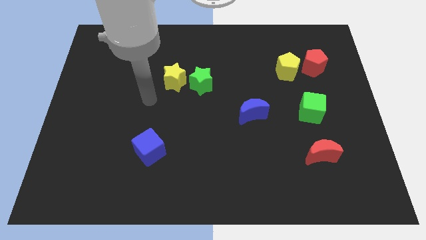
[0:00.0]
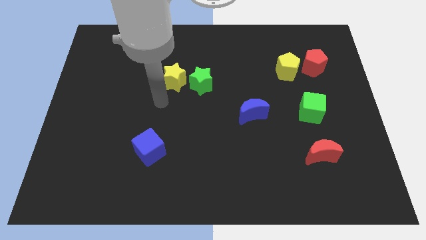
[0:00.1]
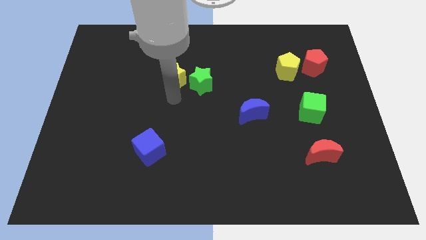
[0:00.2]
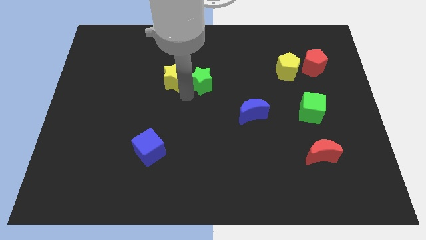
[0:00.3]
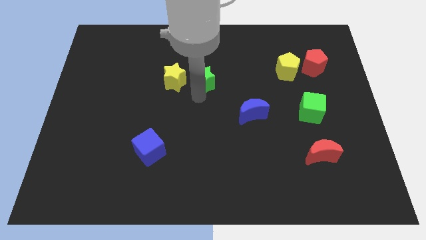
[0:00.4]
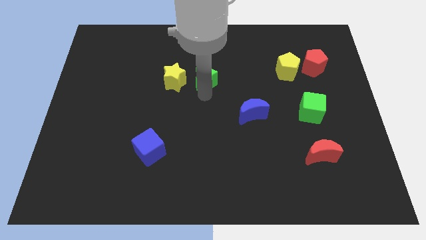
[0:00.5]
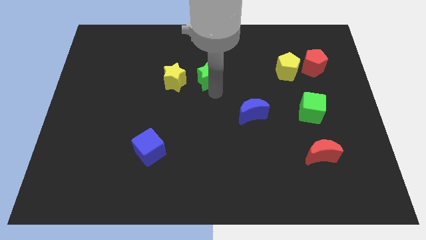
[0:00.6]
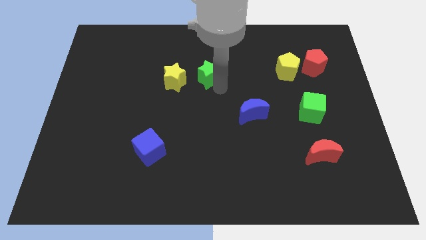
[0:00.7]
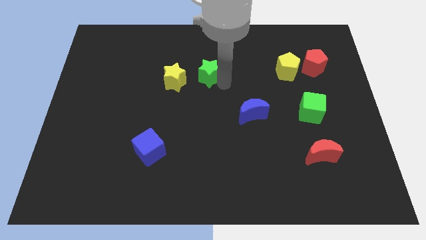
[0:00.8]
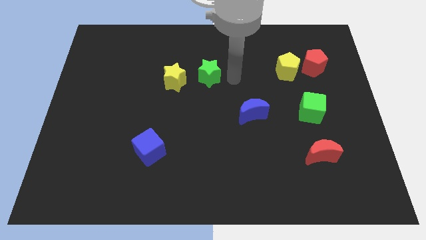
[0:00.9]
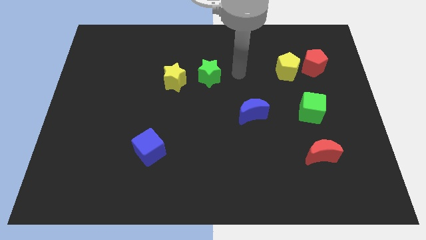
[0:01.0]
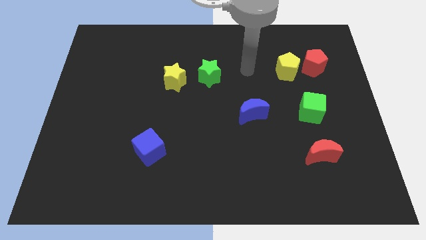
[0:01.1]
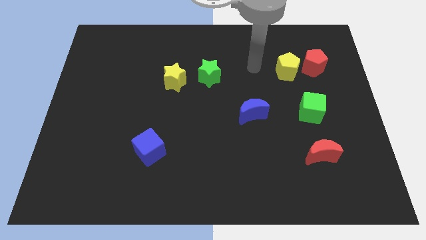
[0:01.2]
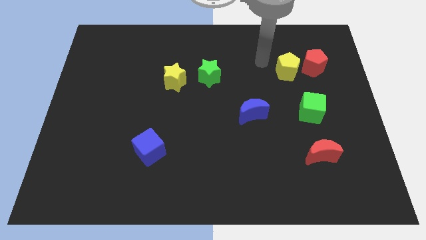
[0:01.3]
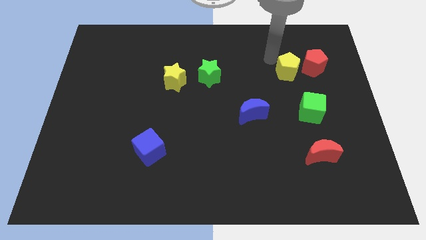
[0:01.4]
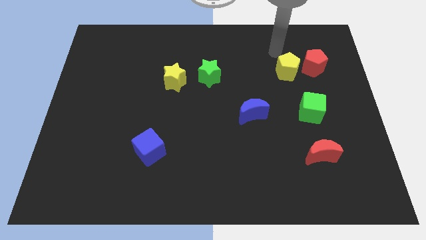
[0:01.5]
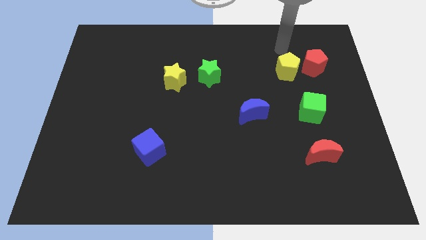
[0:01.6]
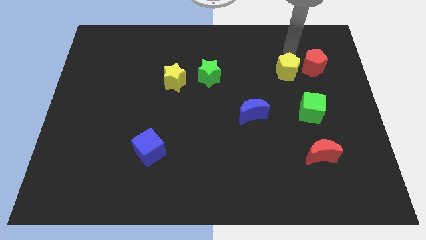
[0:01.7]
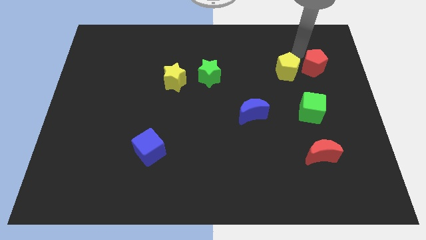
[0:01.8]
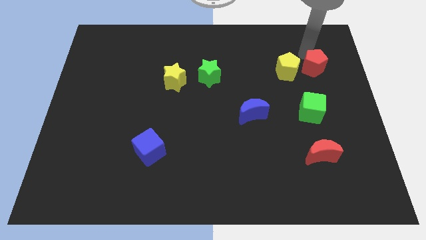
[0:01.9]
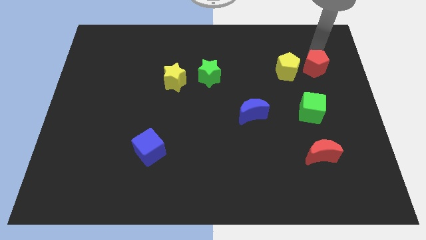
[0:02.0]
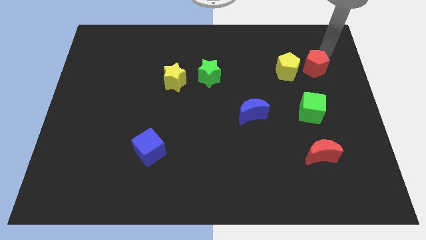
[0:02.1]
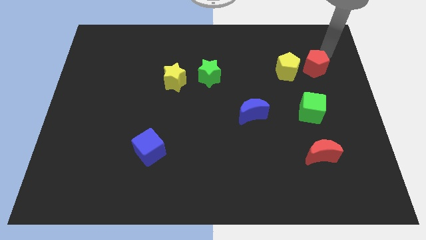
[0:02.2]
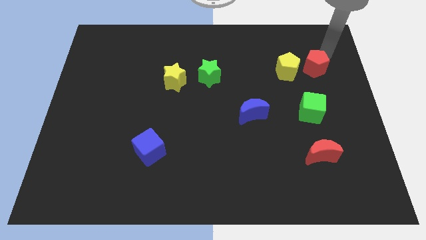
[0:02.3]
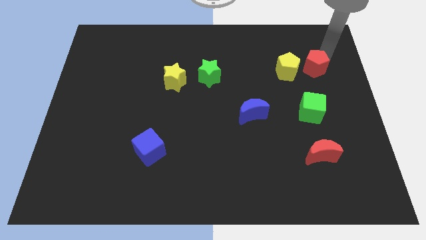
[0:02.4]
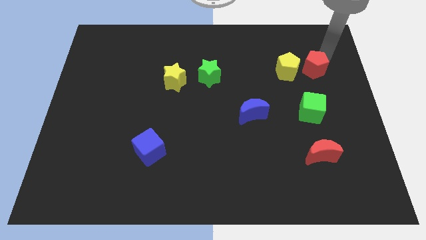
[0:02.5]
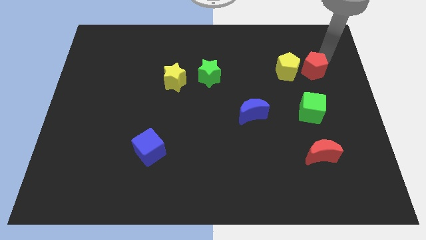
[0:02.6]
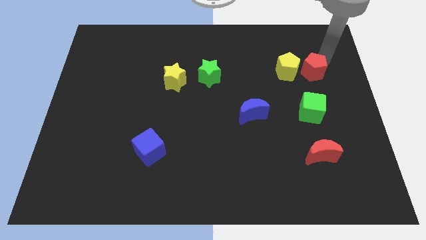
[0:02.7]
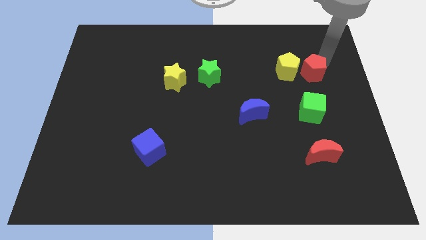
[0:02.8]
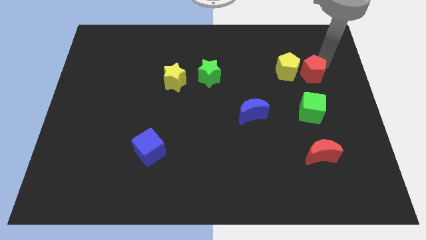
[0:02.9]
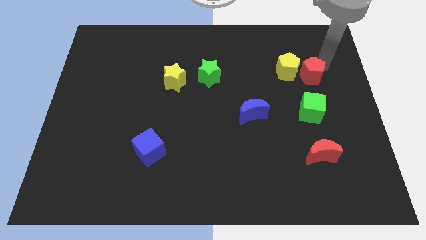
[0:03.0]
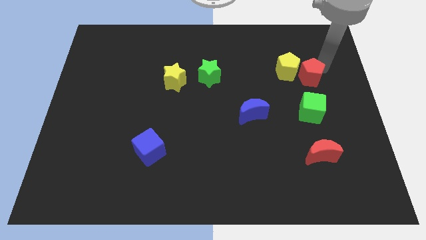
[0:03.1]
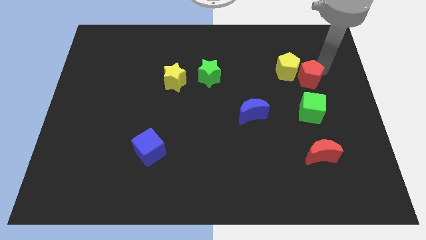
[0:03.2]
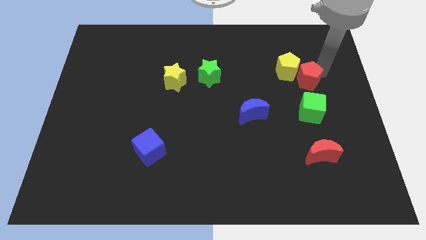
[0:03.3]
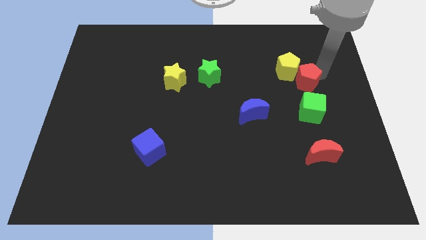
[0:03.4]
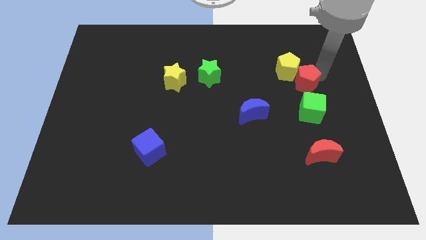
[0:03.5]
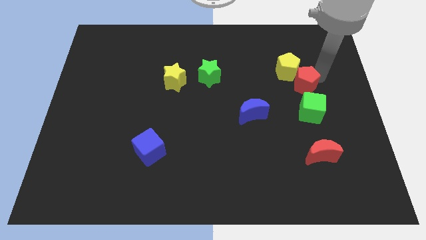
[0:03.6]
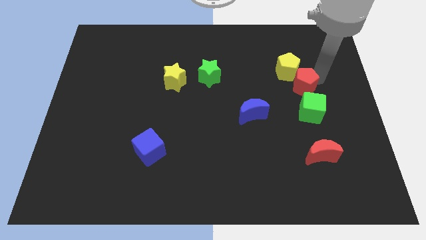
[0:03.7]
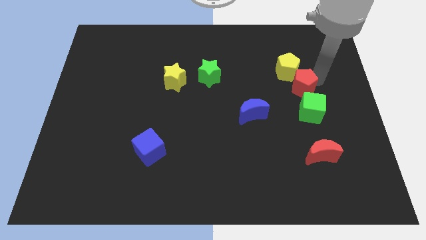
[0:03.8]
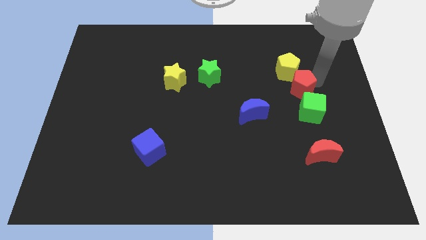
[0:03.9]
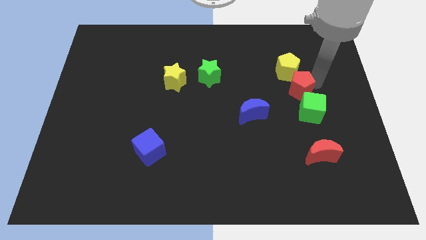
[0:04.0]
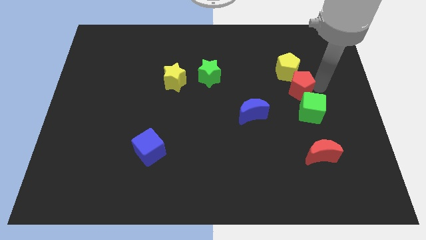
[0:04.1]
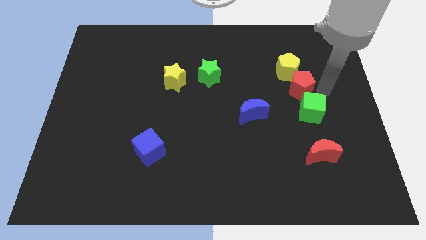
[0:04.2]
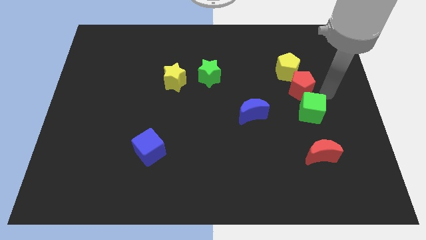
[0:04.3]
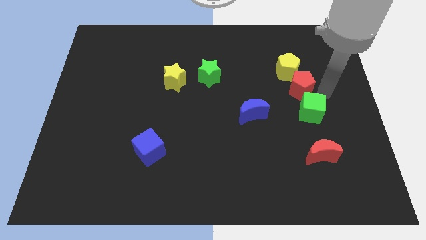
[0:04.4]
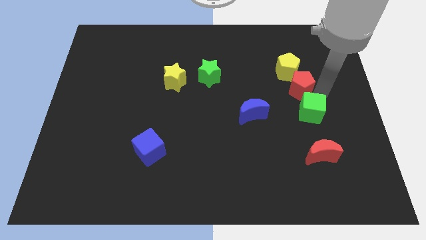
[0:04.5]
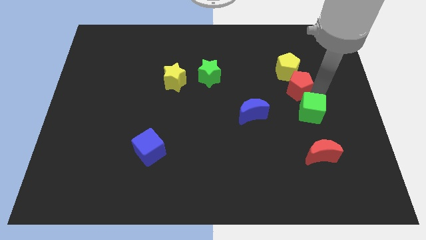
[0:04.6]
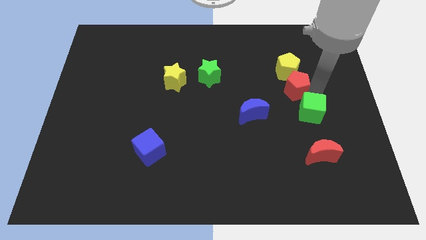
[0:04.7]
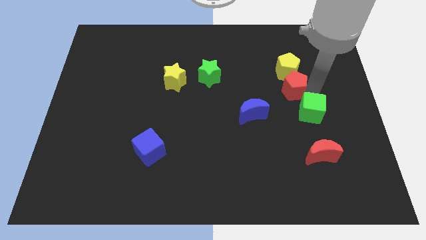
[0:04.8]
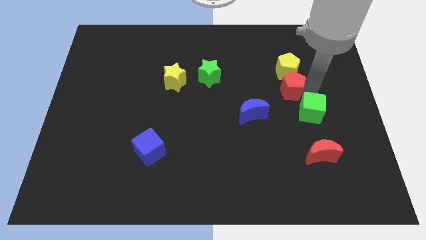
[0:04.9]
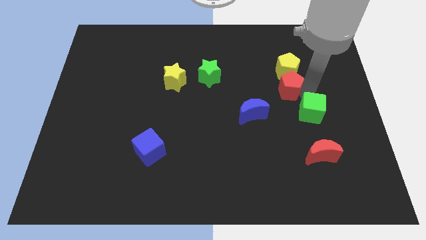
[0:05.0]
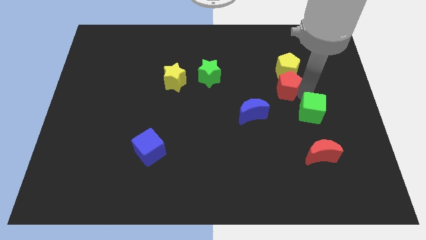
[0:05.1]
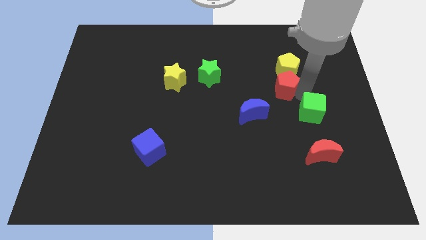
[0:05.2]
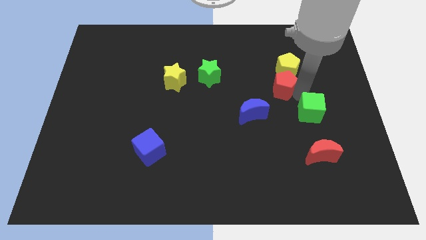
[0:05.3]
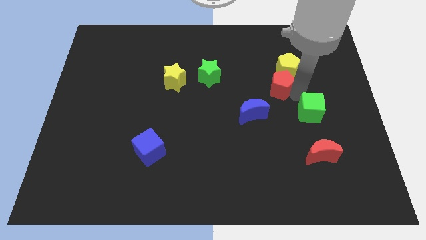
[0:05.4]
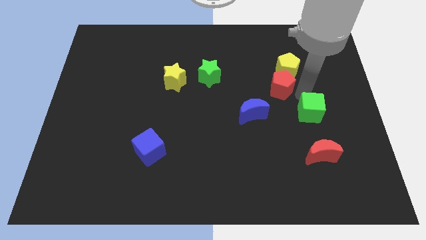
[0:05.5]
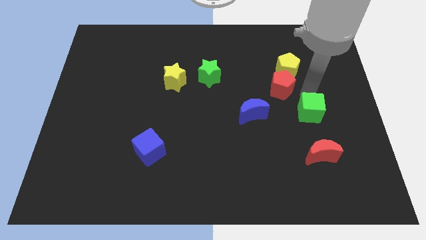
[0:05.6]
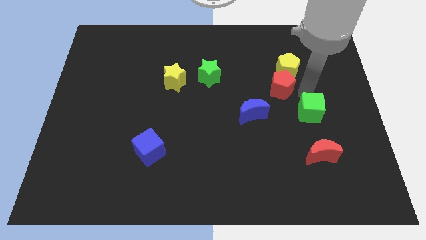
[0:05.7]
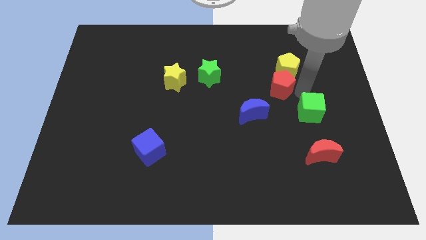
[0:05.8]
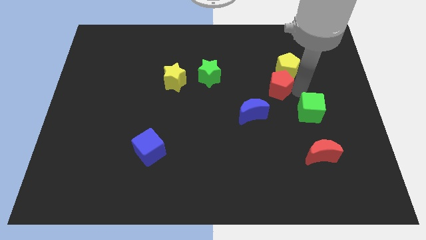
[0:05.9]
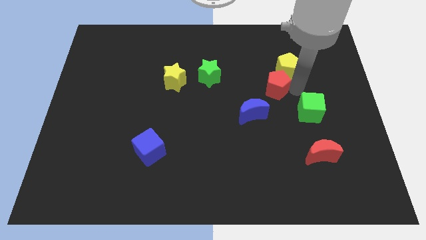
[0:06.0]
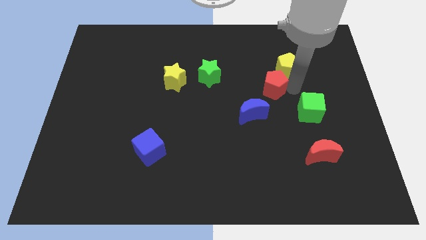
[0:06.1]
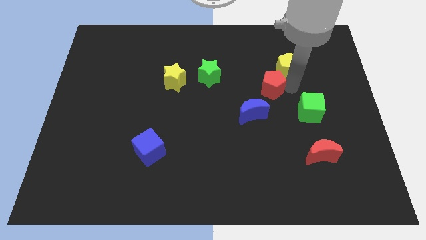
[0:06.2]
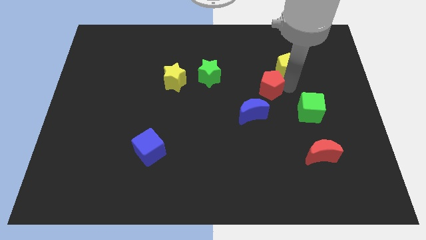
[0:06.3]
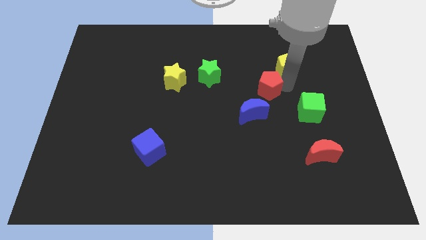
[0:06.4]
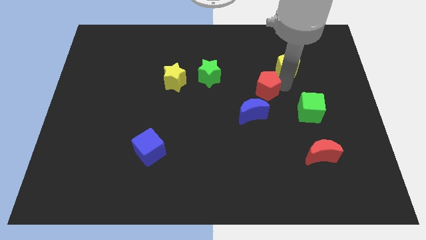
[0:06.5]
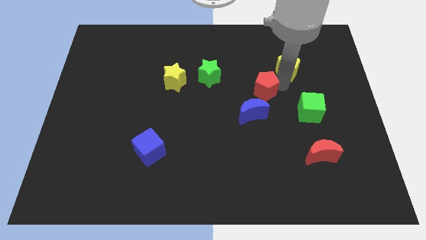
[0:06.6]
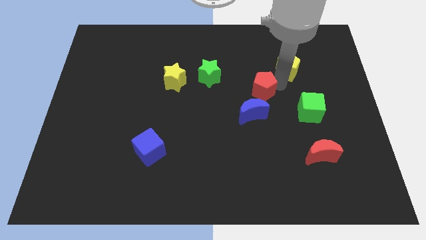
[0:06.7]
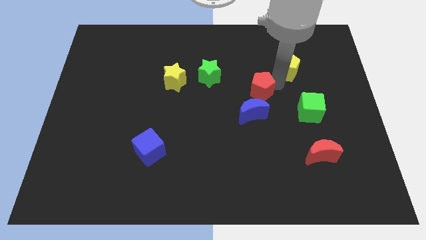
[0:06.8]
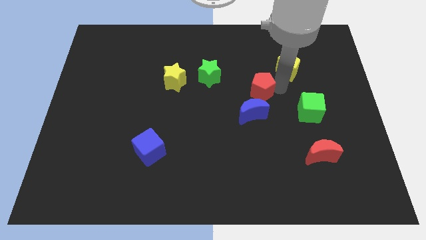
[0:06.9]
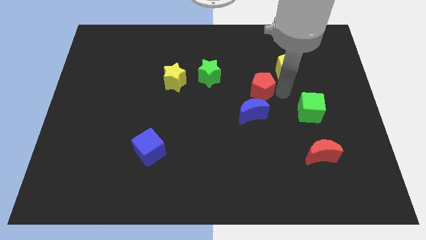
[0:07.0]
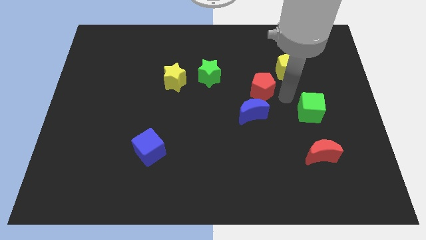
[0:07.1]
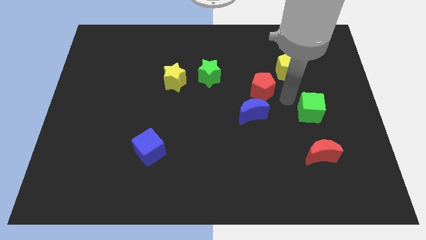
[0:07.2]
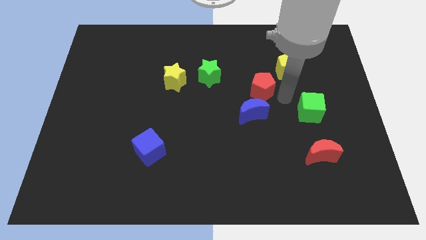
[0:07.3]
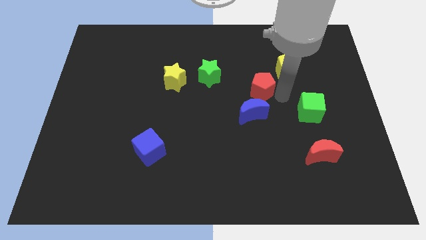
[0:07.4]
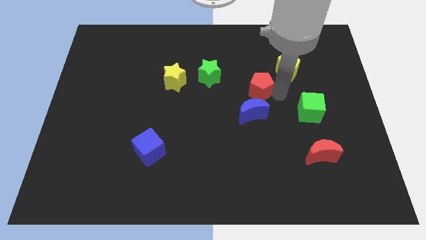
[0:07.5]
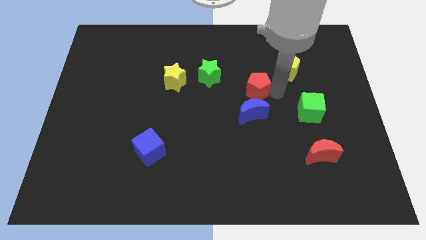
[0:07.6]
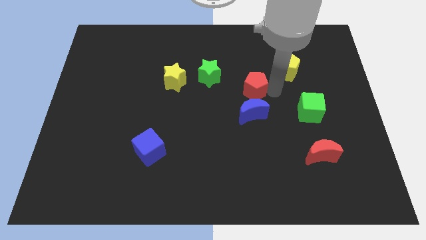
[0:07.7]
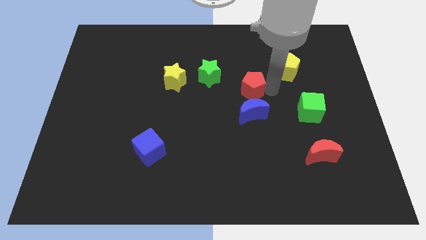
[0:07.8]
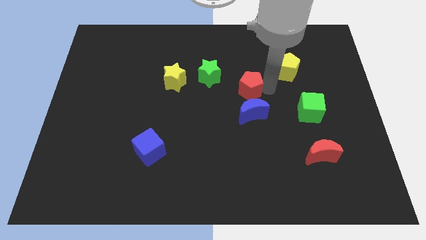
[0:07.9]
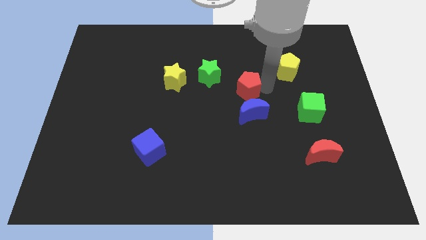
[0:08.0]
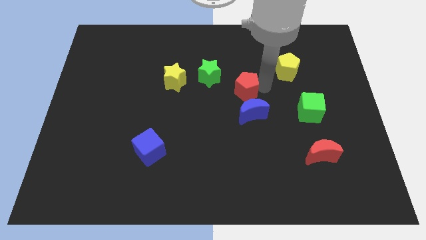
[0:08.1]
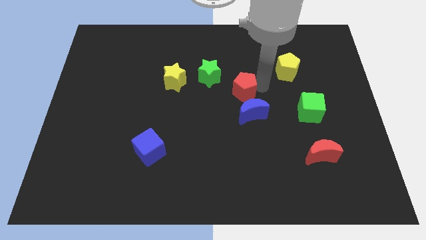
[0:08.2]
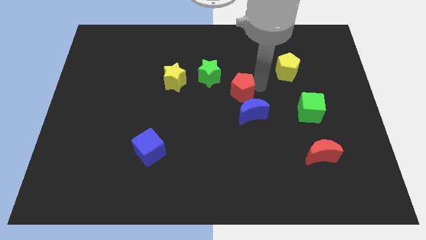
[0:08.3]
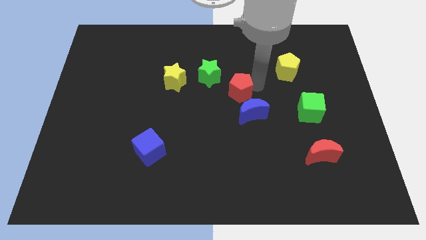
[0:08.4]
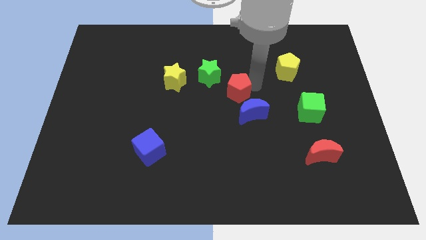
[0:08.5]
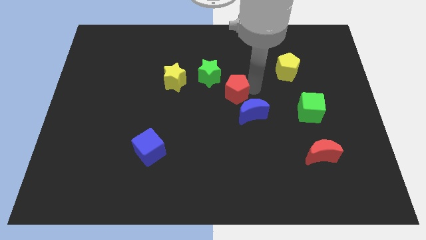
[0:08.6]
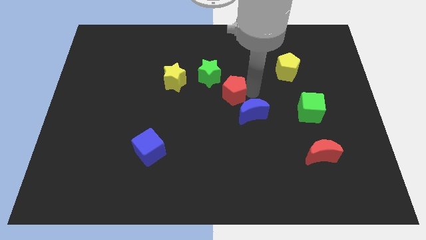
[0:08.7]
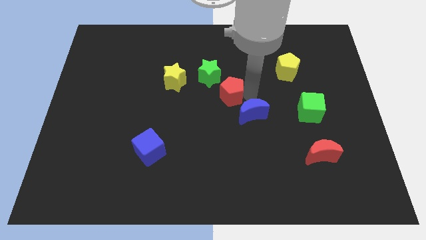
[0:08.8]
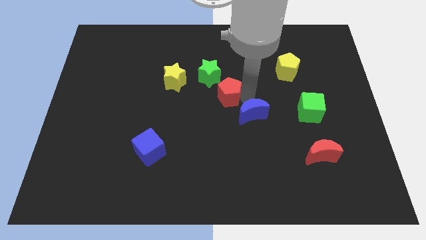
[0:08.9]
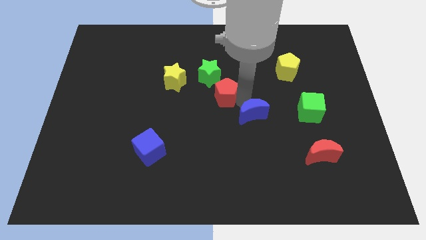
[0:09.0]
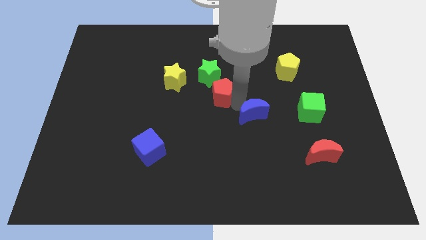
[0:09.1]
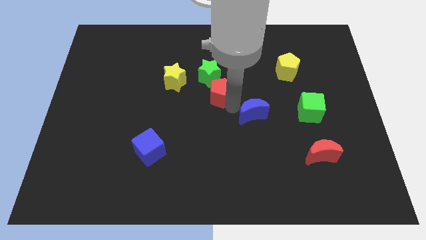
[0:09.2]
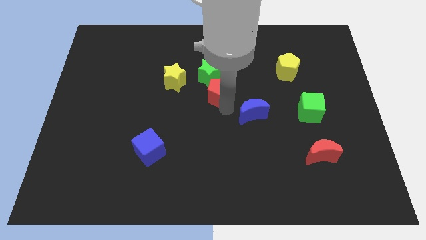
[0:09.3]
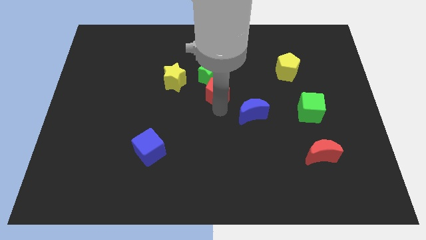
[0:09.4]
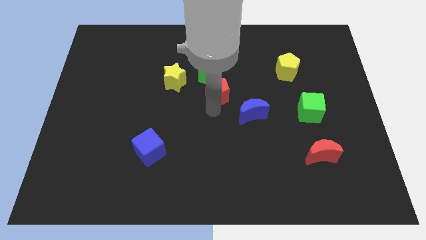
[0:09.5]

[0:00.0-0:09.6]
slide the red pentagon close to the green star
